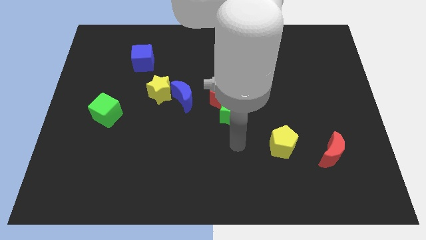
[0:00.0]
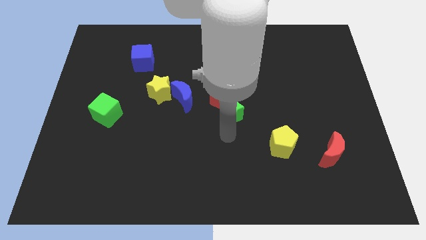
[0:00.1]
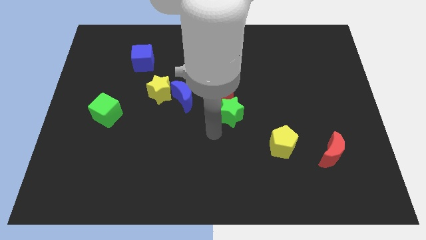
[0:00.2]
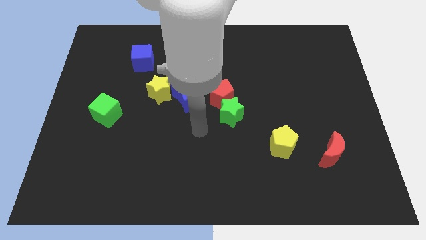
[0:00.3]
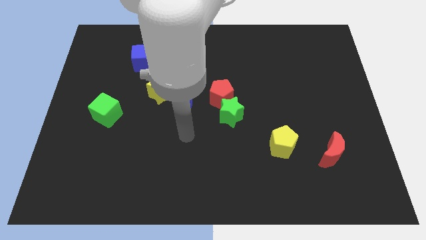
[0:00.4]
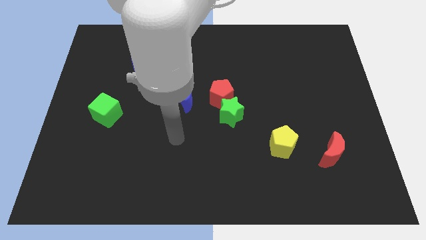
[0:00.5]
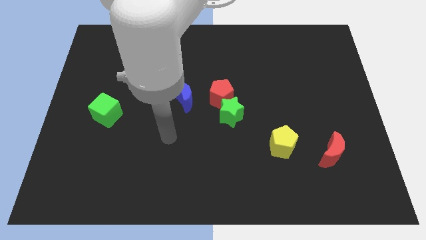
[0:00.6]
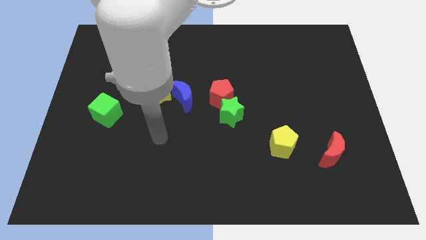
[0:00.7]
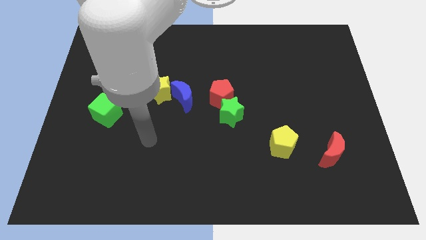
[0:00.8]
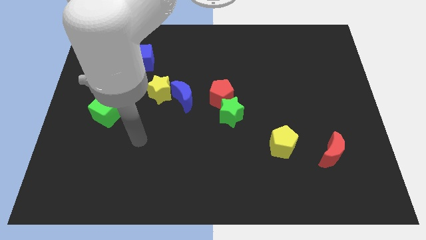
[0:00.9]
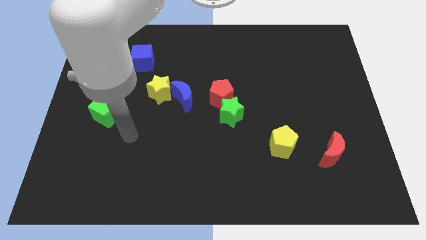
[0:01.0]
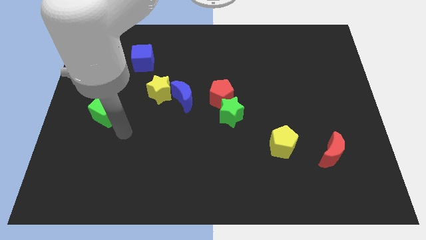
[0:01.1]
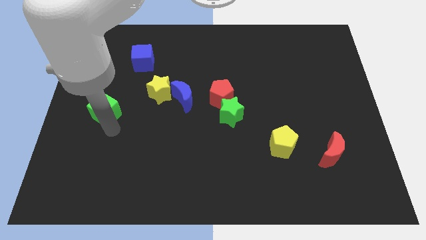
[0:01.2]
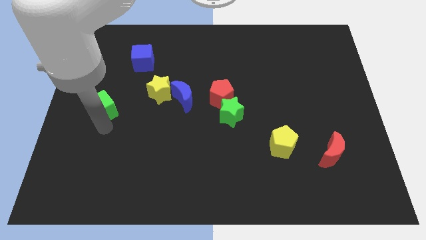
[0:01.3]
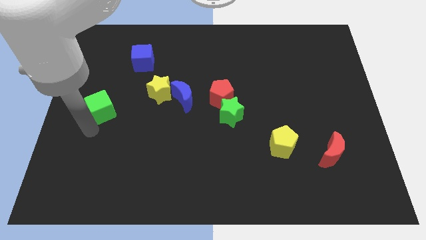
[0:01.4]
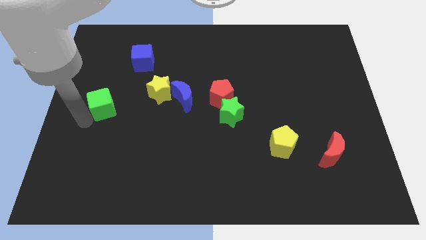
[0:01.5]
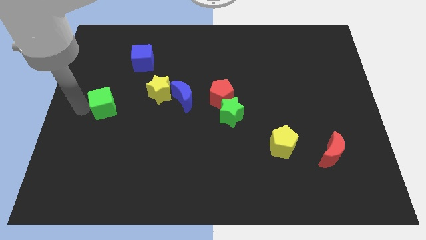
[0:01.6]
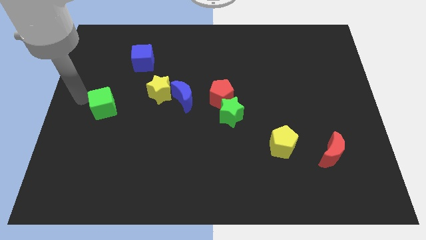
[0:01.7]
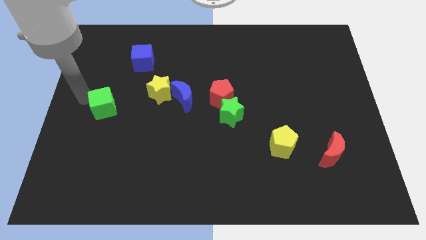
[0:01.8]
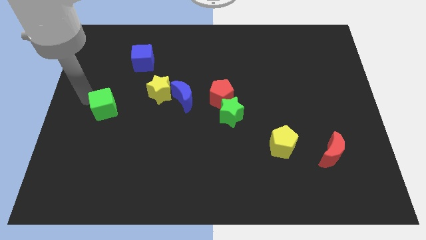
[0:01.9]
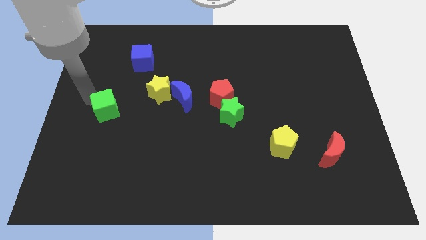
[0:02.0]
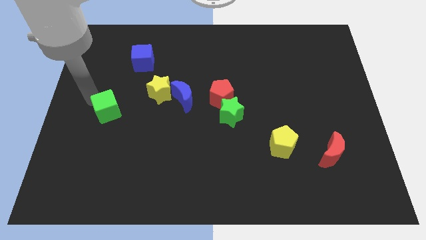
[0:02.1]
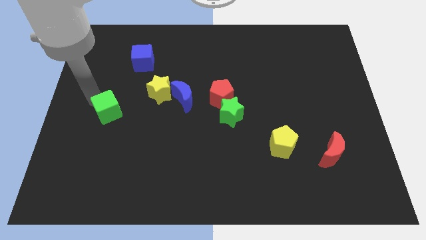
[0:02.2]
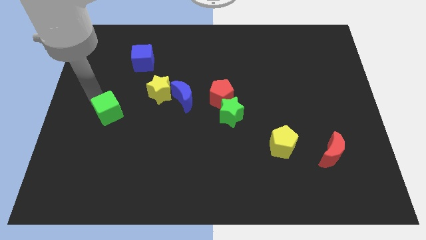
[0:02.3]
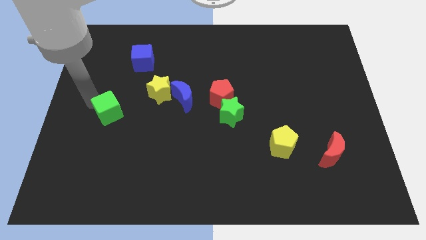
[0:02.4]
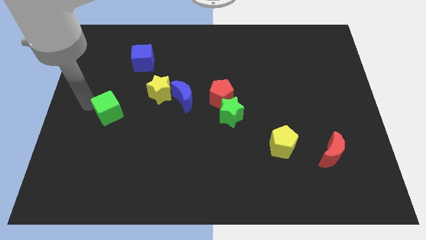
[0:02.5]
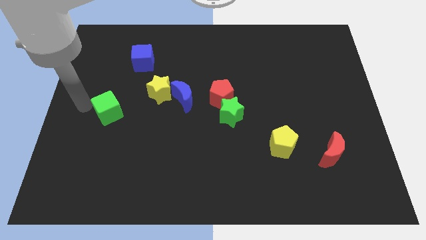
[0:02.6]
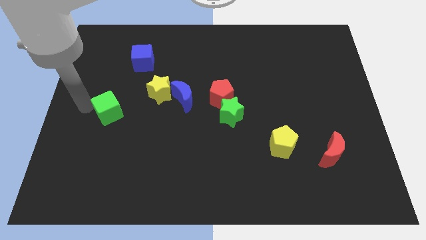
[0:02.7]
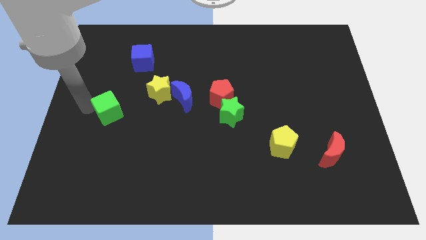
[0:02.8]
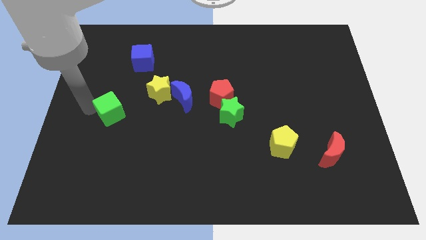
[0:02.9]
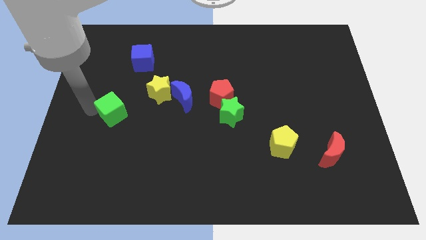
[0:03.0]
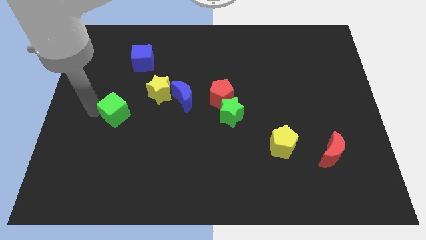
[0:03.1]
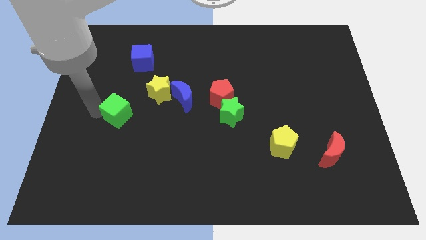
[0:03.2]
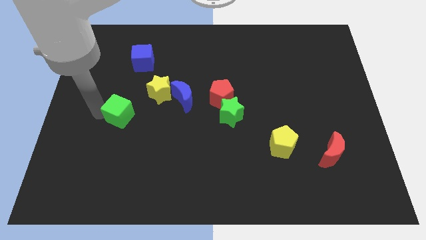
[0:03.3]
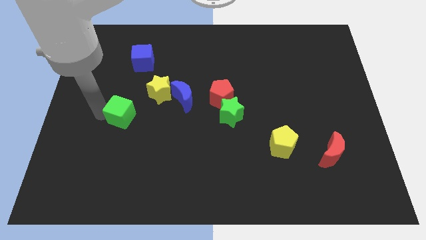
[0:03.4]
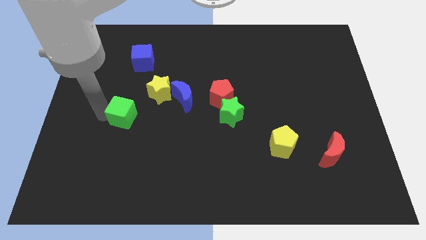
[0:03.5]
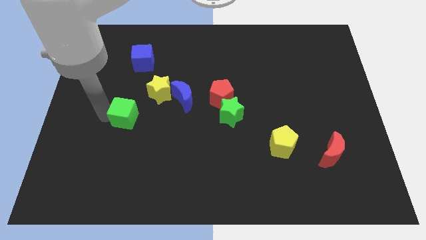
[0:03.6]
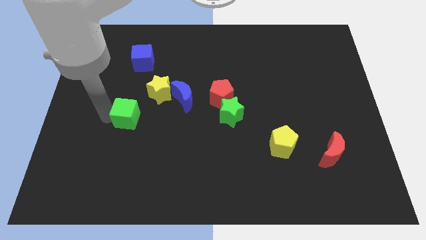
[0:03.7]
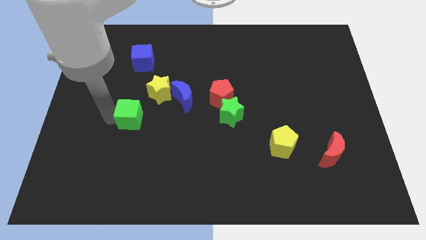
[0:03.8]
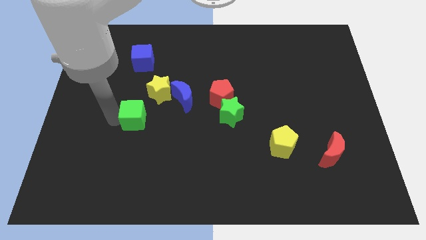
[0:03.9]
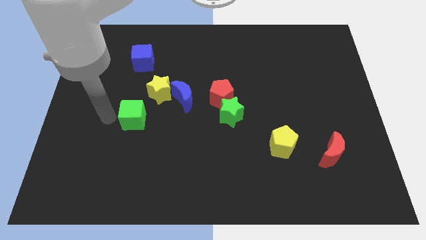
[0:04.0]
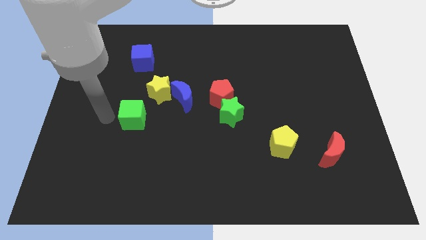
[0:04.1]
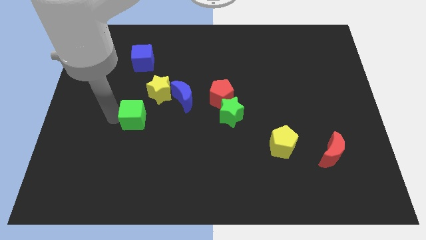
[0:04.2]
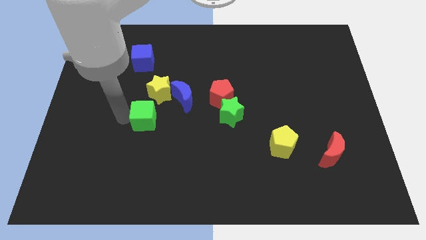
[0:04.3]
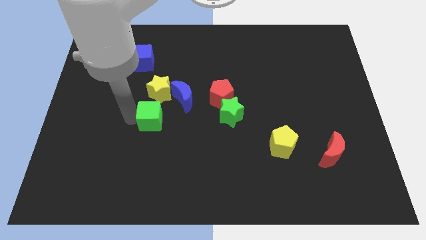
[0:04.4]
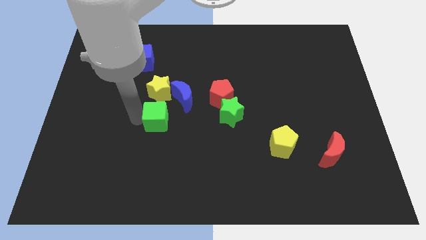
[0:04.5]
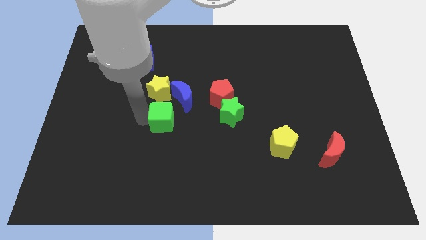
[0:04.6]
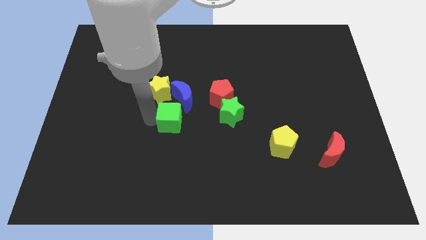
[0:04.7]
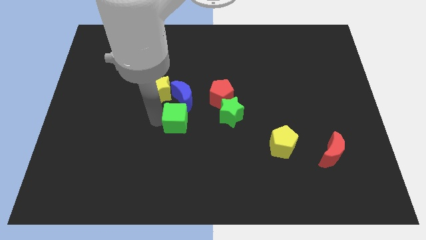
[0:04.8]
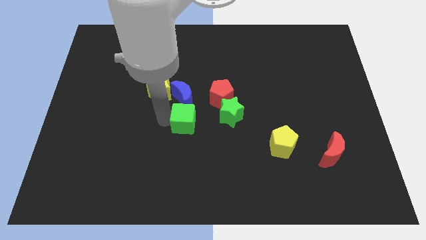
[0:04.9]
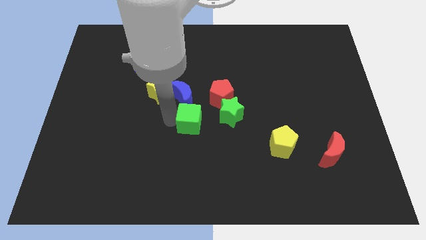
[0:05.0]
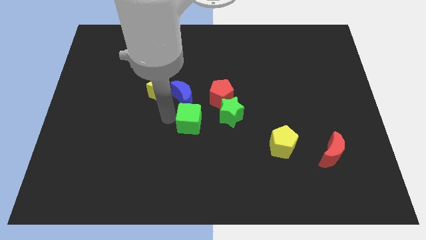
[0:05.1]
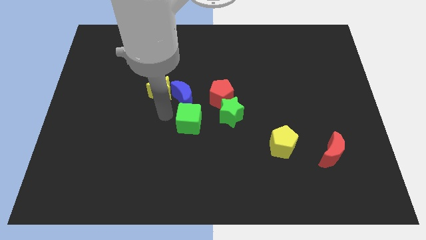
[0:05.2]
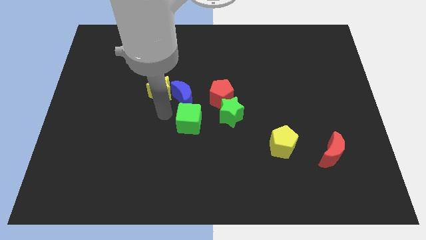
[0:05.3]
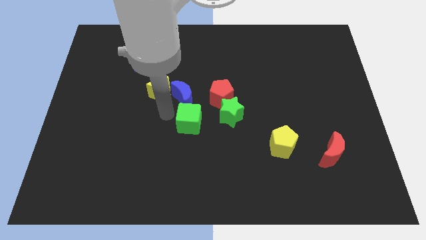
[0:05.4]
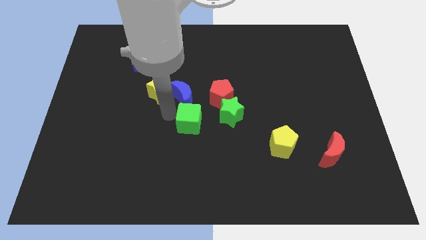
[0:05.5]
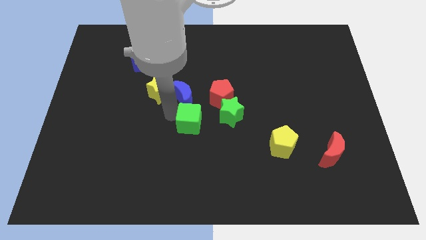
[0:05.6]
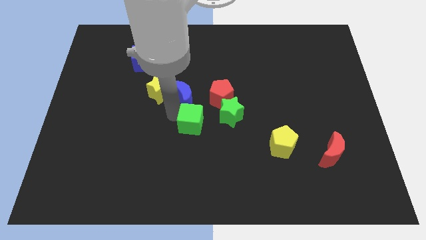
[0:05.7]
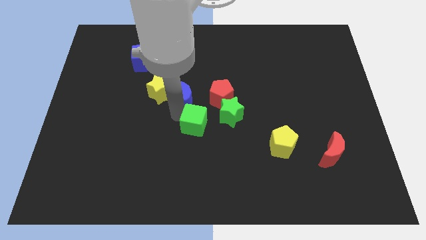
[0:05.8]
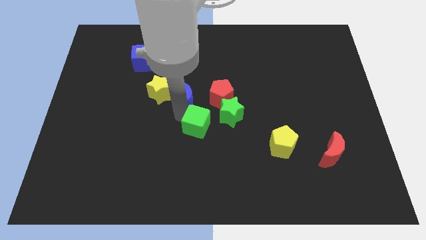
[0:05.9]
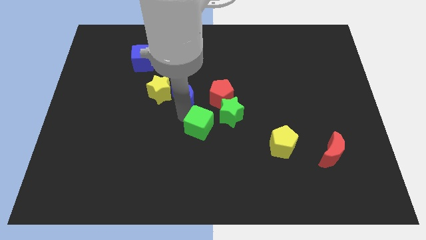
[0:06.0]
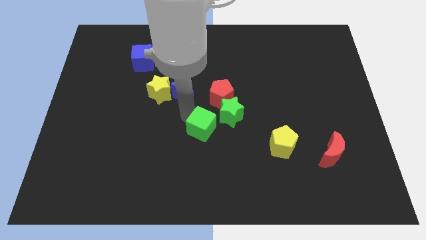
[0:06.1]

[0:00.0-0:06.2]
push the green cube to the bottom of the red pentagon

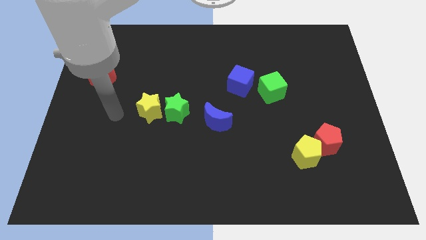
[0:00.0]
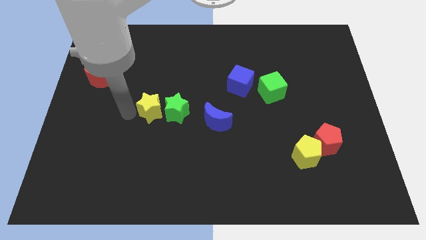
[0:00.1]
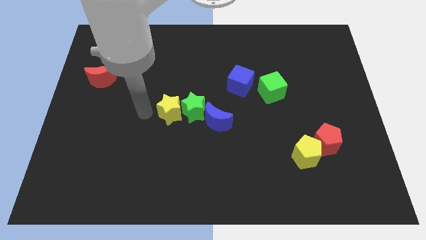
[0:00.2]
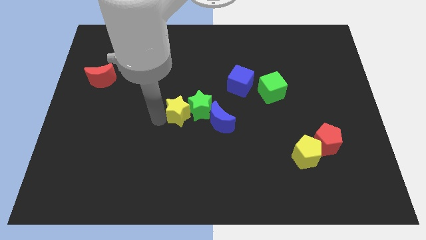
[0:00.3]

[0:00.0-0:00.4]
slide the green star above the blue moon
